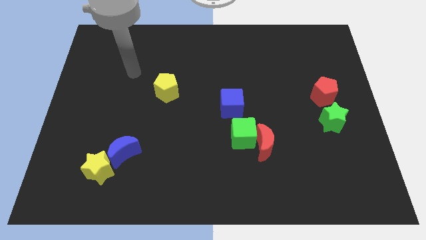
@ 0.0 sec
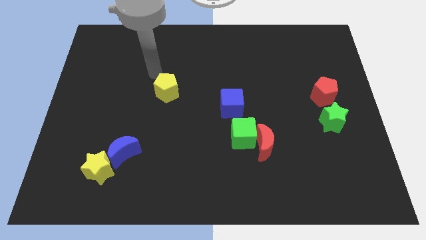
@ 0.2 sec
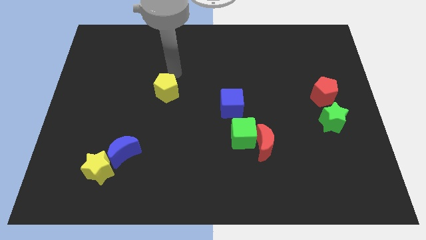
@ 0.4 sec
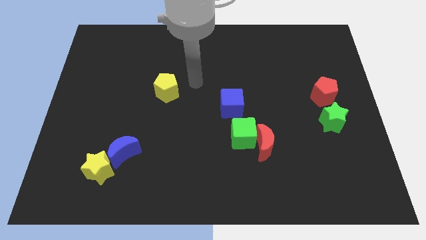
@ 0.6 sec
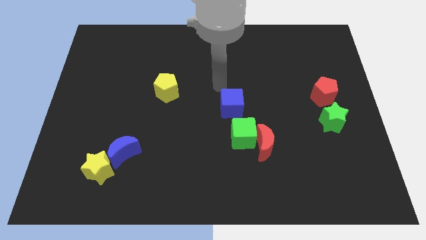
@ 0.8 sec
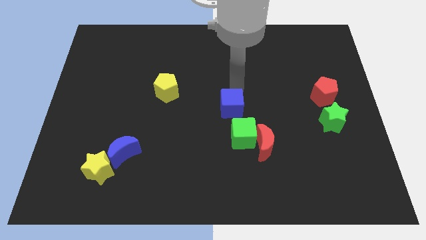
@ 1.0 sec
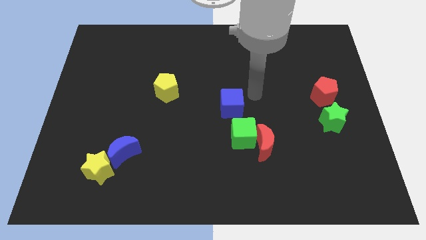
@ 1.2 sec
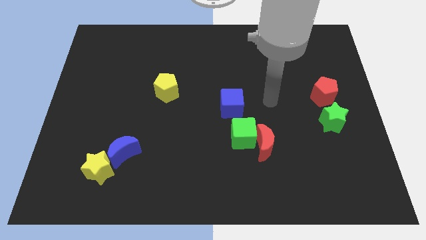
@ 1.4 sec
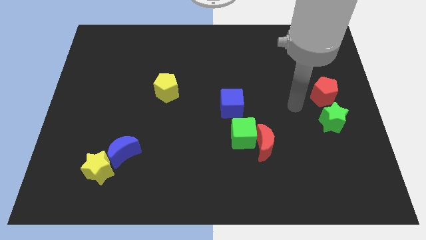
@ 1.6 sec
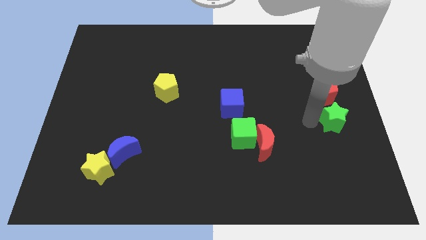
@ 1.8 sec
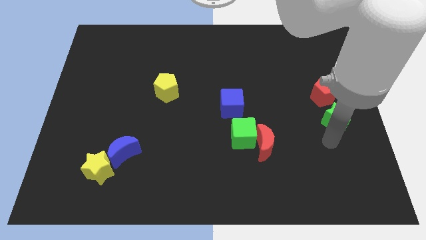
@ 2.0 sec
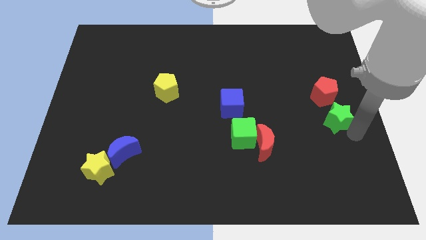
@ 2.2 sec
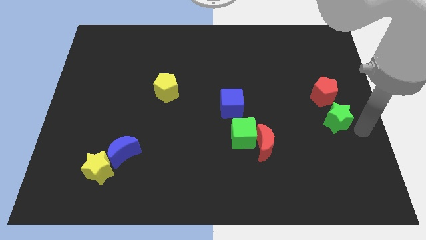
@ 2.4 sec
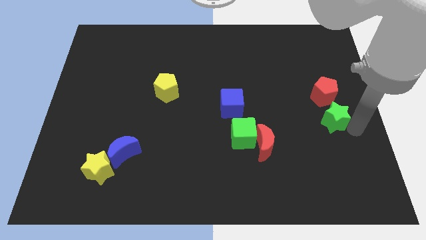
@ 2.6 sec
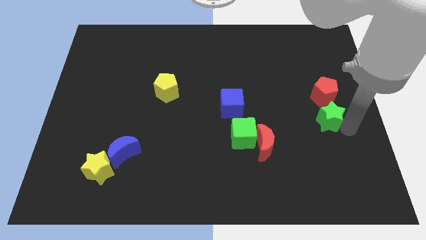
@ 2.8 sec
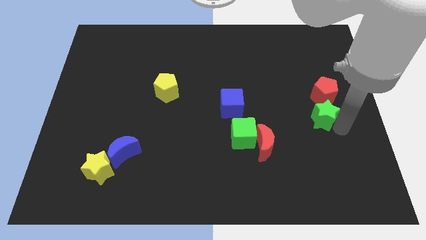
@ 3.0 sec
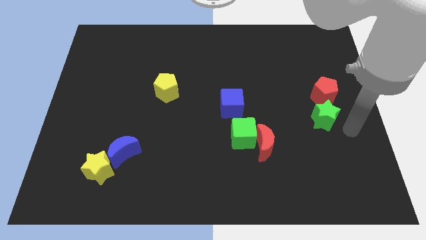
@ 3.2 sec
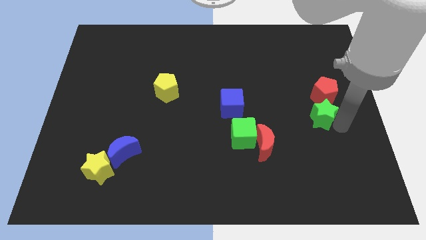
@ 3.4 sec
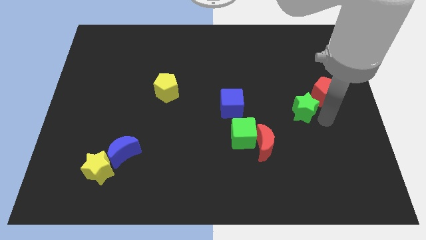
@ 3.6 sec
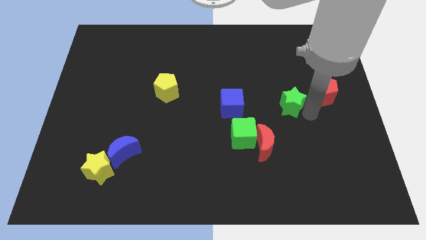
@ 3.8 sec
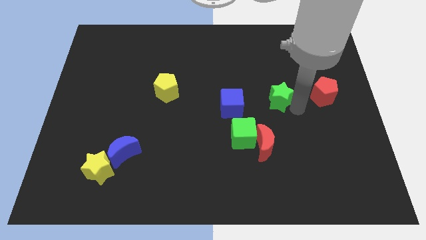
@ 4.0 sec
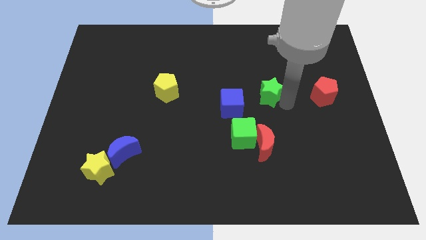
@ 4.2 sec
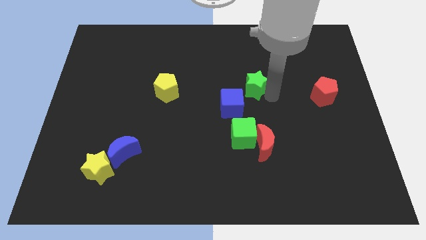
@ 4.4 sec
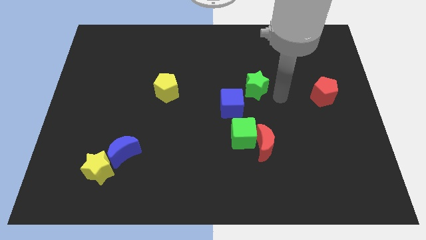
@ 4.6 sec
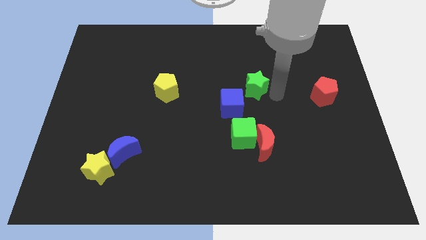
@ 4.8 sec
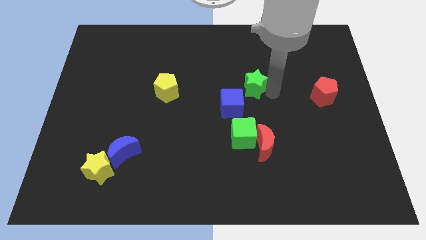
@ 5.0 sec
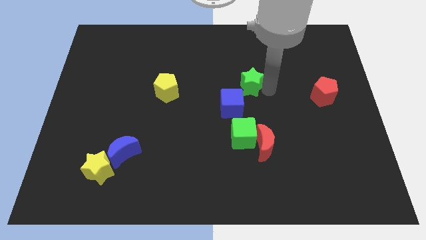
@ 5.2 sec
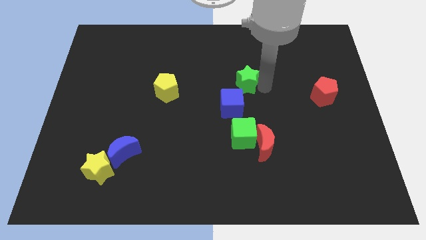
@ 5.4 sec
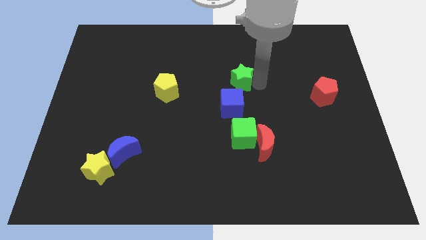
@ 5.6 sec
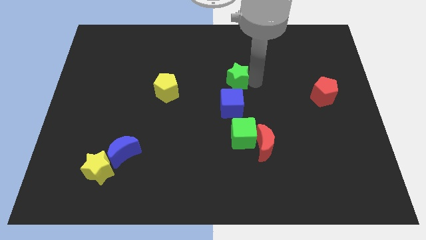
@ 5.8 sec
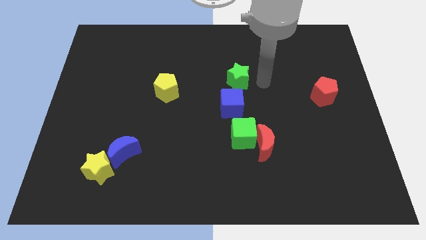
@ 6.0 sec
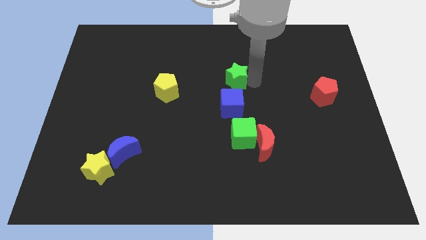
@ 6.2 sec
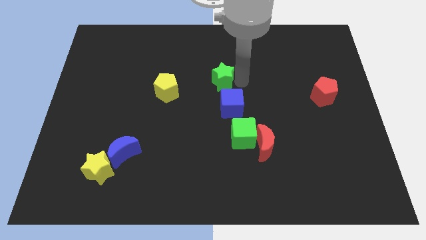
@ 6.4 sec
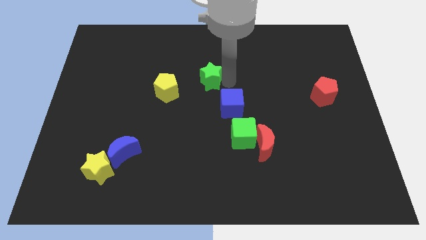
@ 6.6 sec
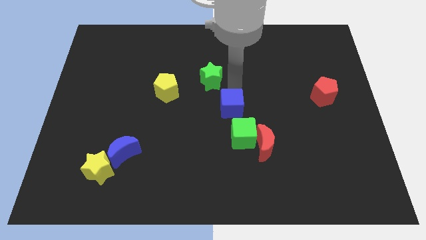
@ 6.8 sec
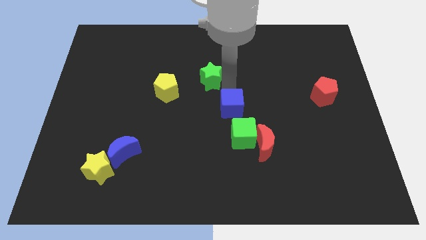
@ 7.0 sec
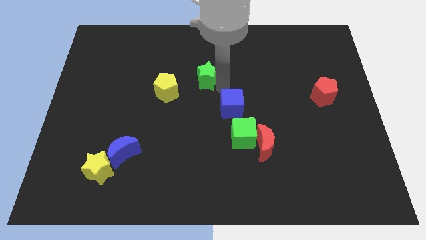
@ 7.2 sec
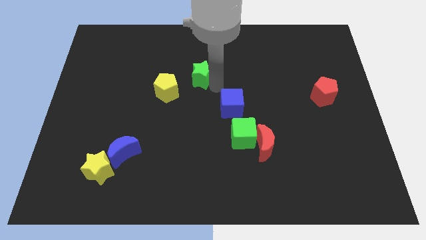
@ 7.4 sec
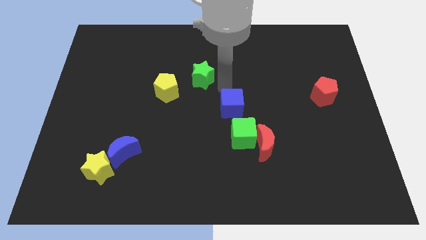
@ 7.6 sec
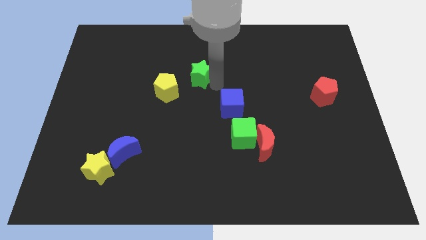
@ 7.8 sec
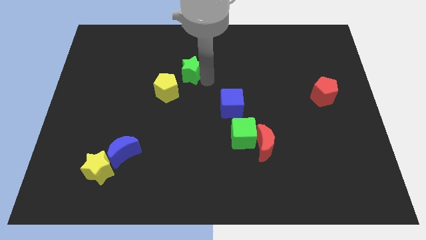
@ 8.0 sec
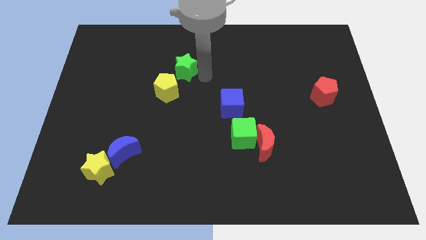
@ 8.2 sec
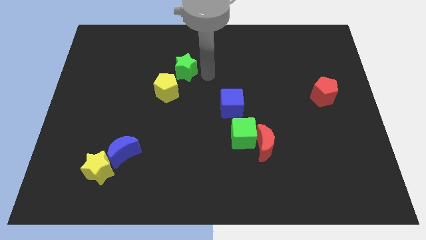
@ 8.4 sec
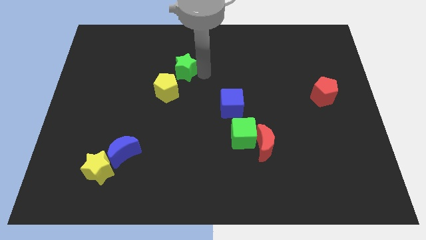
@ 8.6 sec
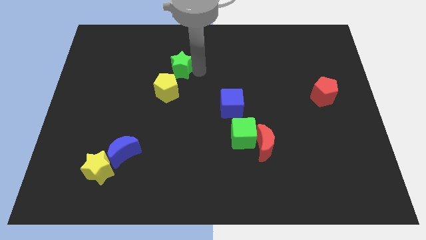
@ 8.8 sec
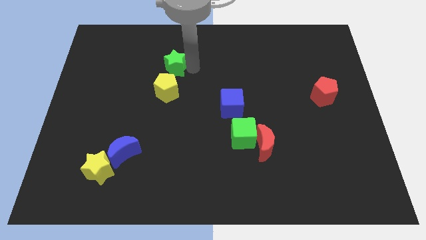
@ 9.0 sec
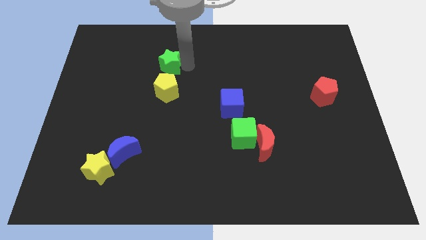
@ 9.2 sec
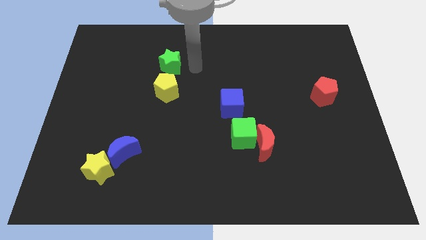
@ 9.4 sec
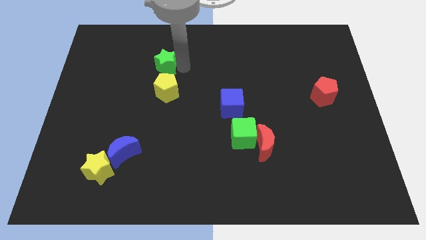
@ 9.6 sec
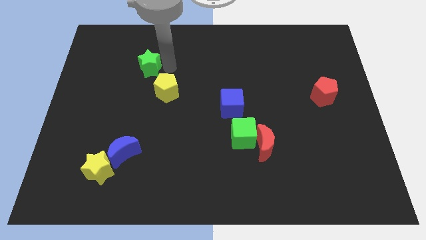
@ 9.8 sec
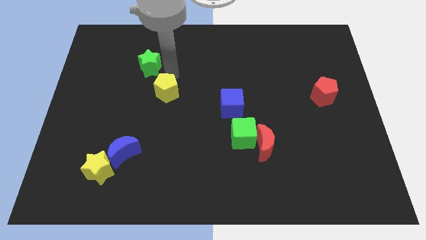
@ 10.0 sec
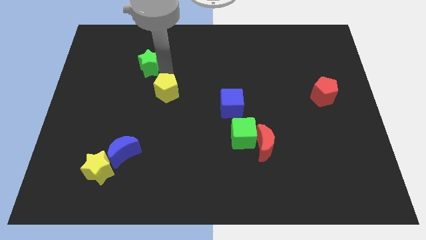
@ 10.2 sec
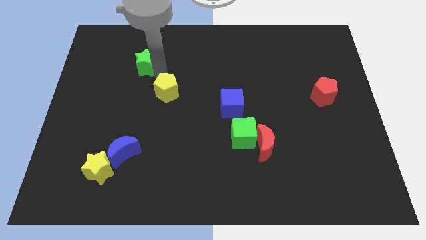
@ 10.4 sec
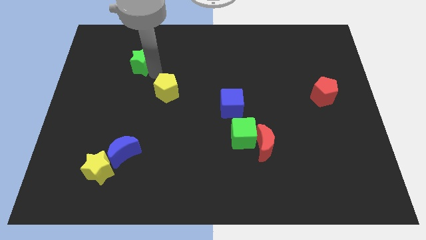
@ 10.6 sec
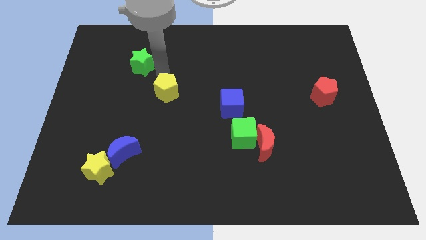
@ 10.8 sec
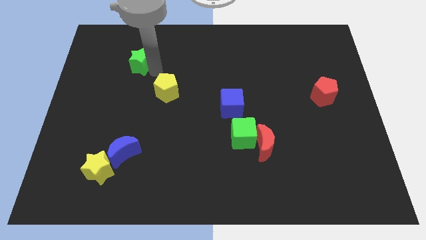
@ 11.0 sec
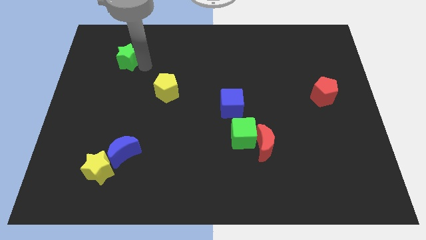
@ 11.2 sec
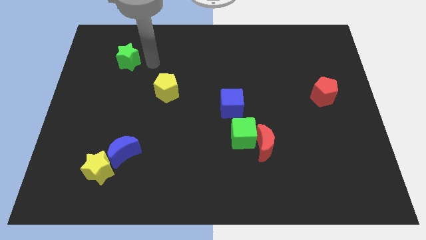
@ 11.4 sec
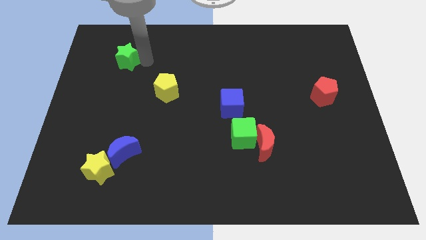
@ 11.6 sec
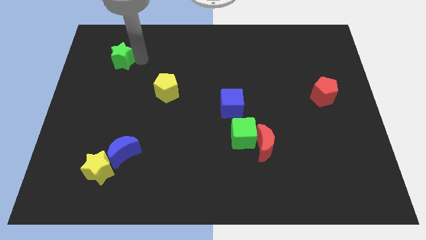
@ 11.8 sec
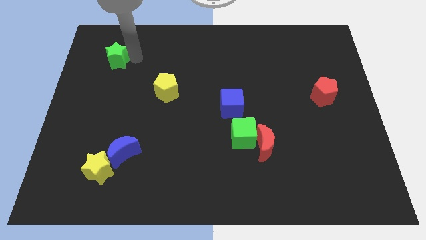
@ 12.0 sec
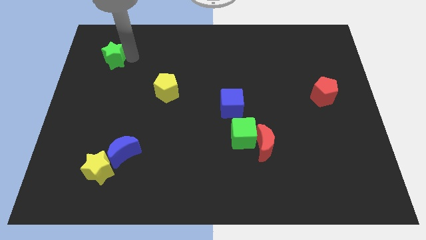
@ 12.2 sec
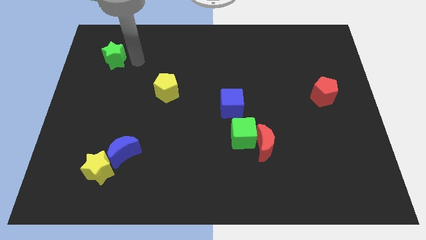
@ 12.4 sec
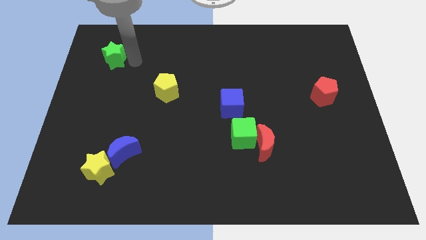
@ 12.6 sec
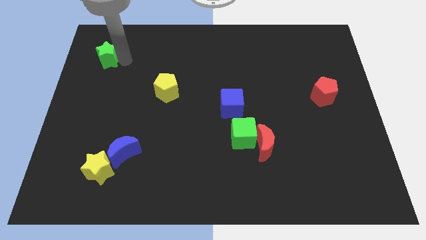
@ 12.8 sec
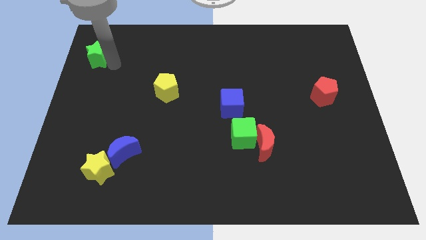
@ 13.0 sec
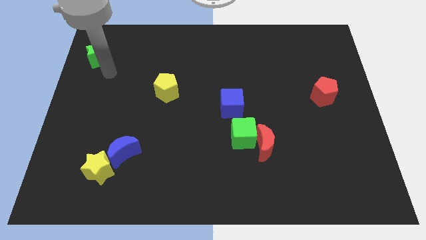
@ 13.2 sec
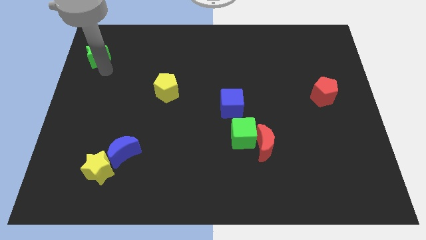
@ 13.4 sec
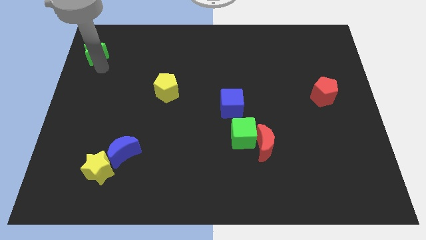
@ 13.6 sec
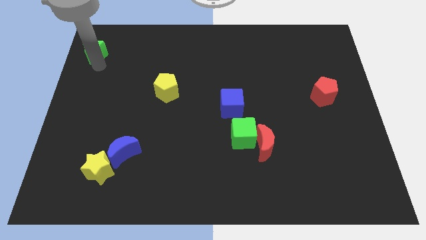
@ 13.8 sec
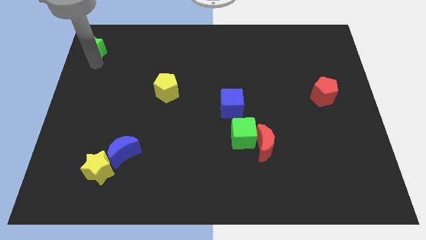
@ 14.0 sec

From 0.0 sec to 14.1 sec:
put the green star to the top left
